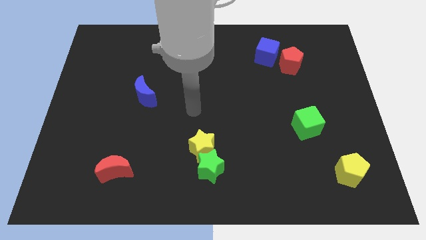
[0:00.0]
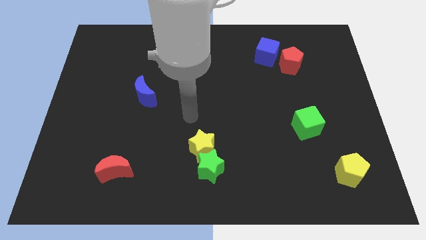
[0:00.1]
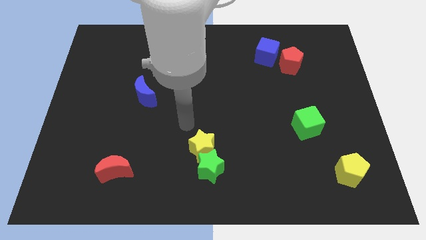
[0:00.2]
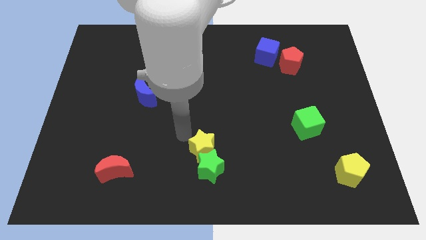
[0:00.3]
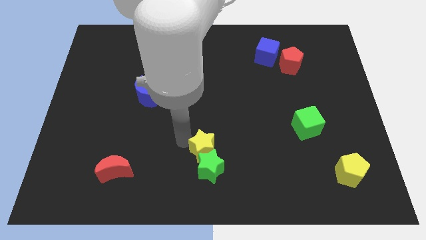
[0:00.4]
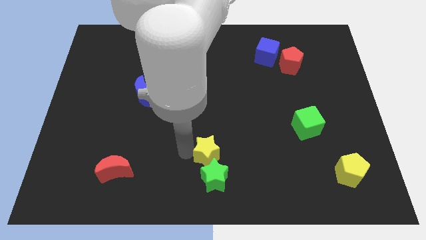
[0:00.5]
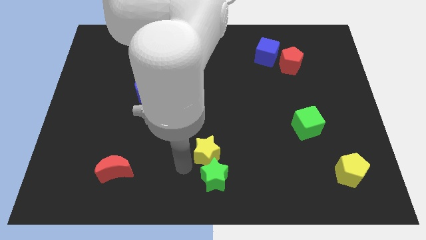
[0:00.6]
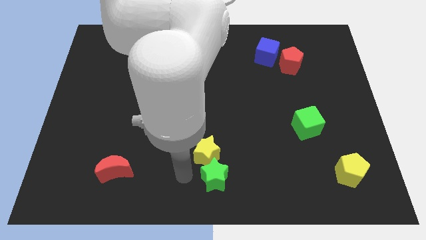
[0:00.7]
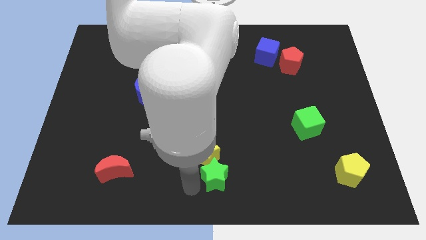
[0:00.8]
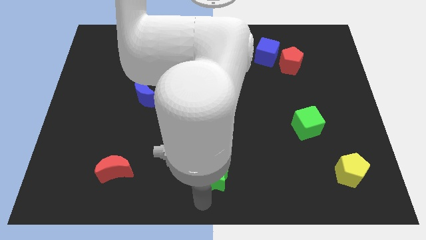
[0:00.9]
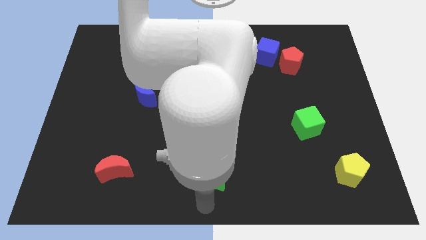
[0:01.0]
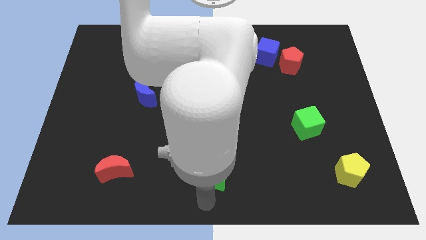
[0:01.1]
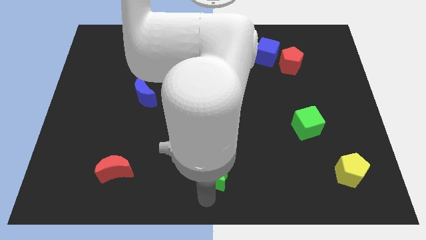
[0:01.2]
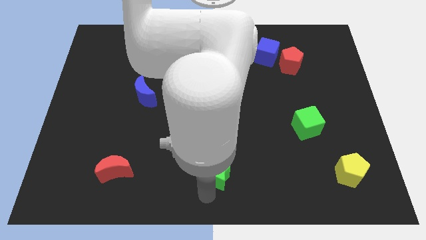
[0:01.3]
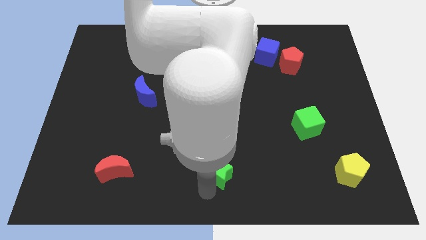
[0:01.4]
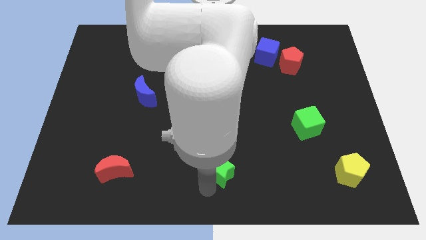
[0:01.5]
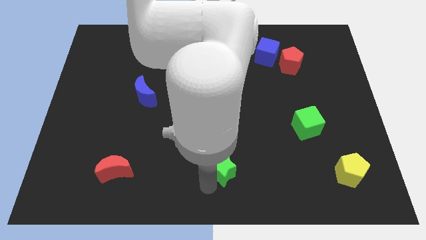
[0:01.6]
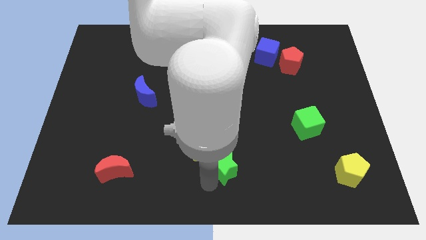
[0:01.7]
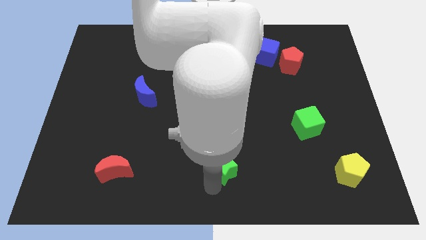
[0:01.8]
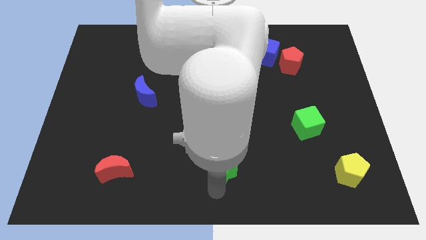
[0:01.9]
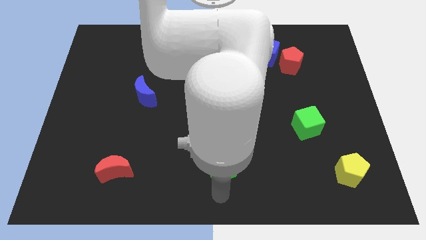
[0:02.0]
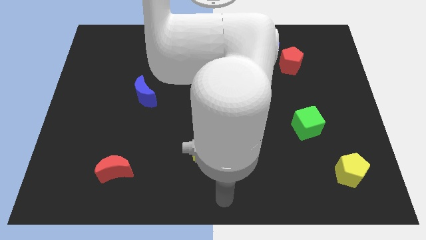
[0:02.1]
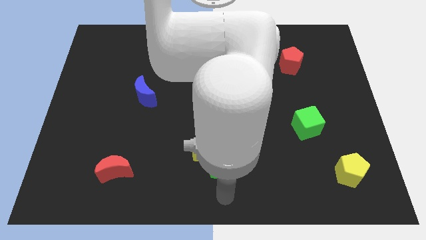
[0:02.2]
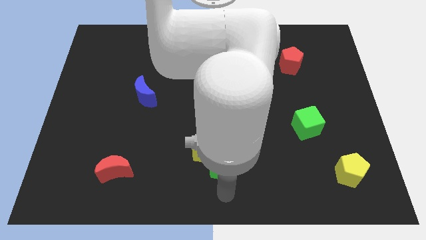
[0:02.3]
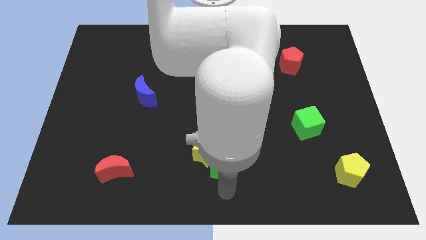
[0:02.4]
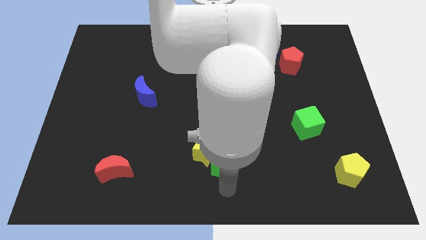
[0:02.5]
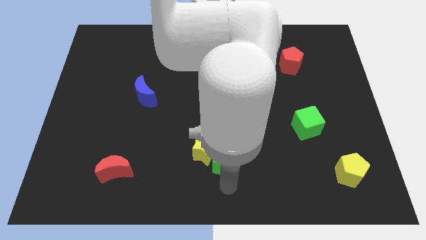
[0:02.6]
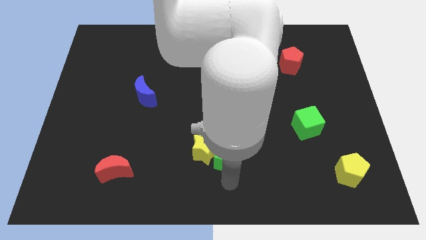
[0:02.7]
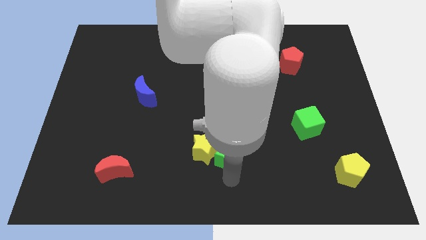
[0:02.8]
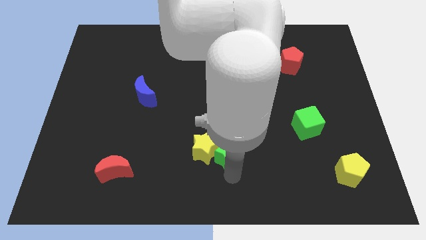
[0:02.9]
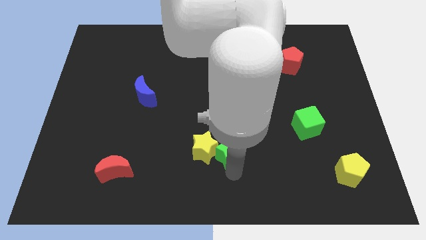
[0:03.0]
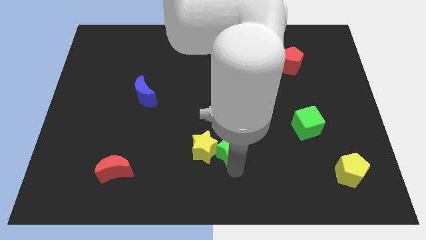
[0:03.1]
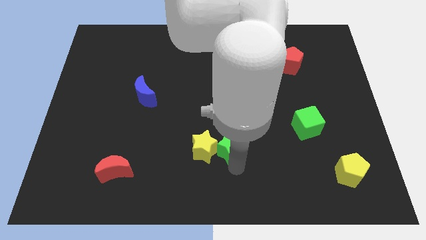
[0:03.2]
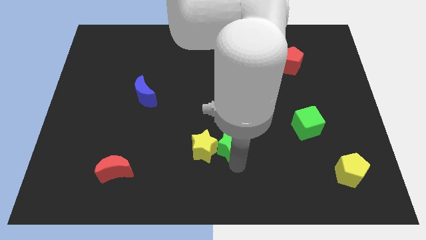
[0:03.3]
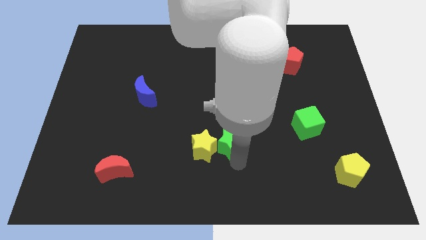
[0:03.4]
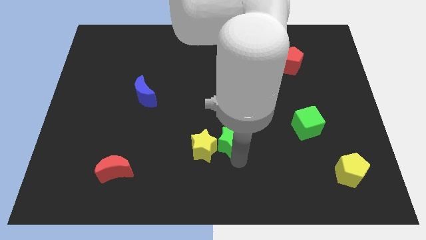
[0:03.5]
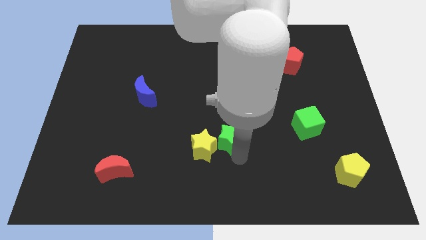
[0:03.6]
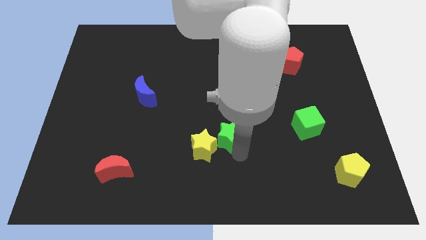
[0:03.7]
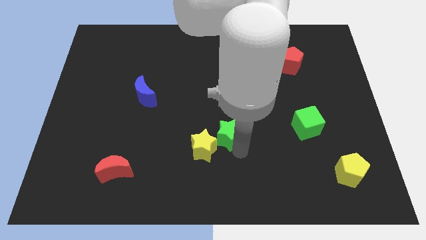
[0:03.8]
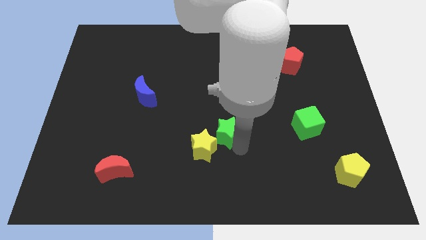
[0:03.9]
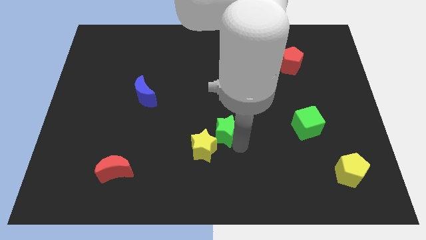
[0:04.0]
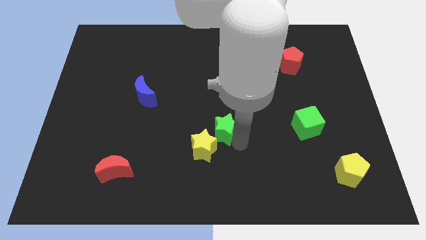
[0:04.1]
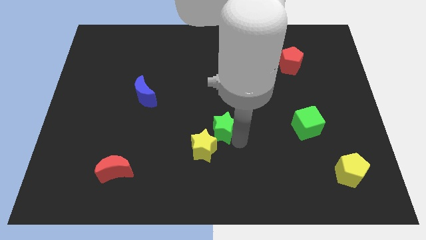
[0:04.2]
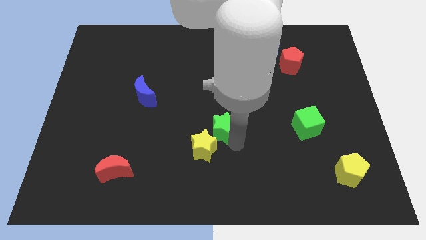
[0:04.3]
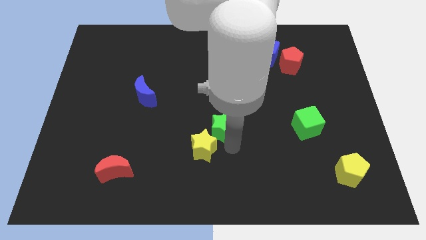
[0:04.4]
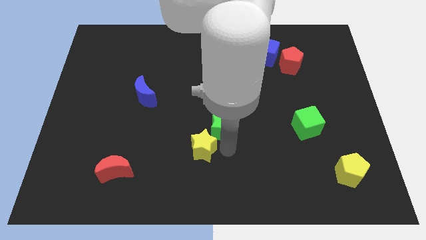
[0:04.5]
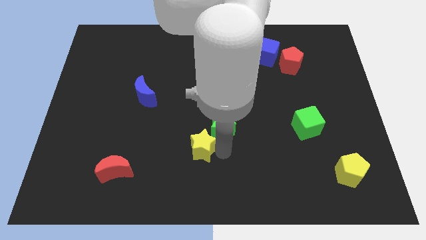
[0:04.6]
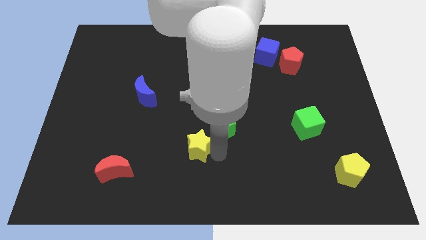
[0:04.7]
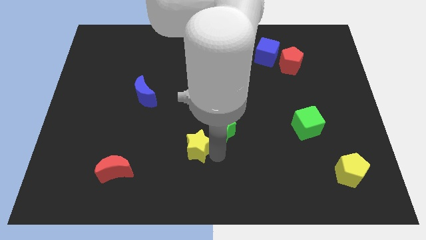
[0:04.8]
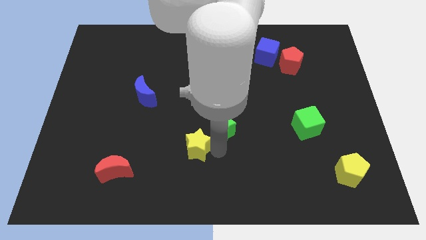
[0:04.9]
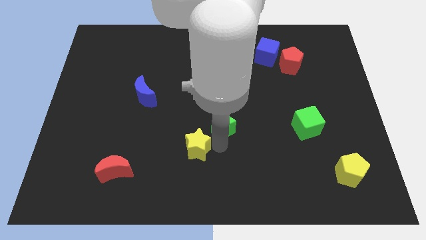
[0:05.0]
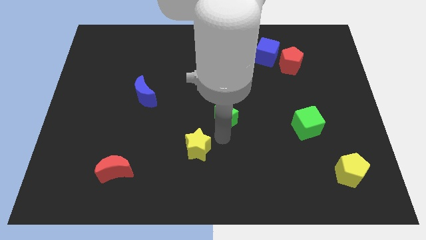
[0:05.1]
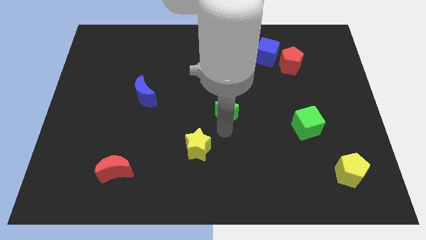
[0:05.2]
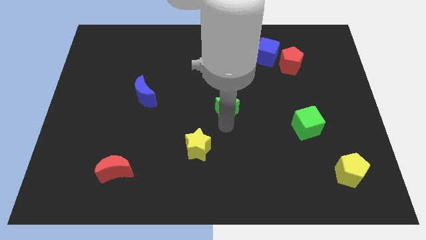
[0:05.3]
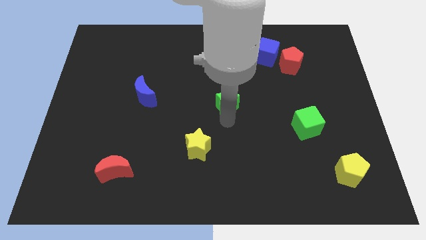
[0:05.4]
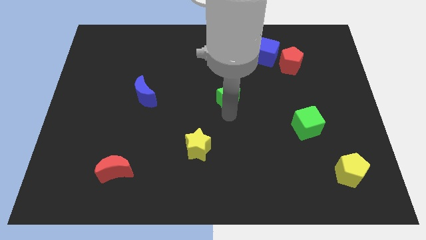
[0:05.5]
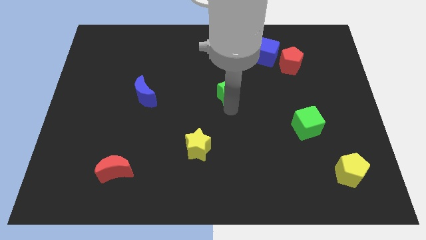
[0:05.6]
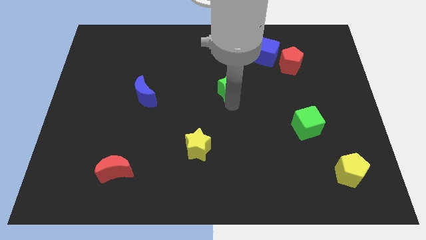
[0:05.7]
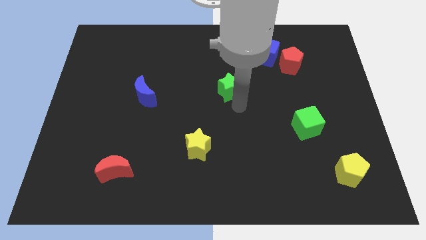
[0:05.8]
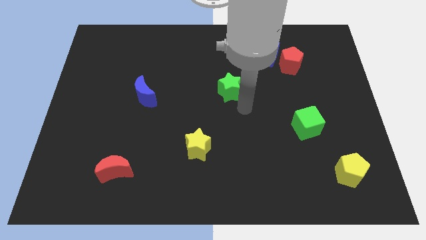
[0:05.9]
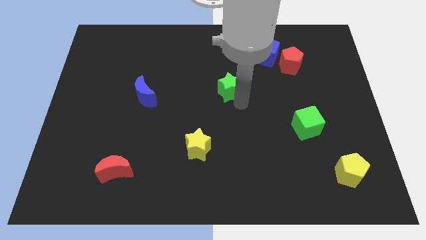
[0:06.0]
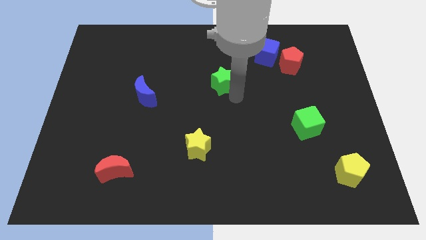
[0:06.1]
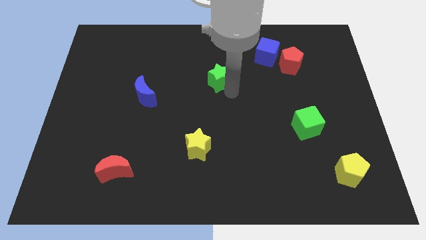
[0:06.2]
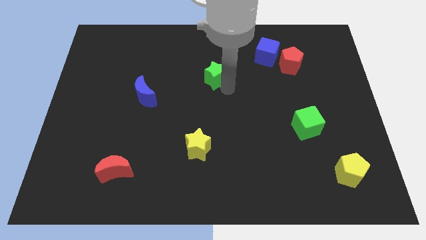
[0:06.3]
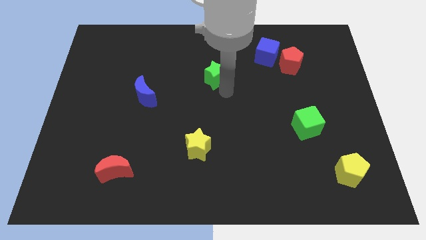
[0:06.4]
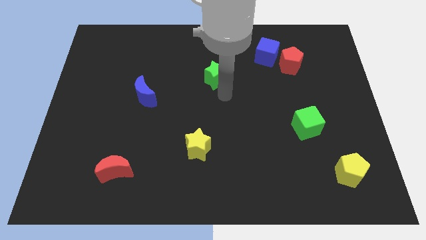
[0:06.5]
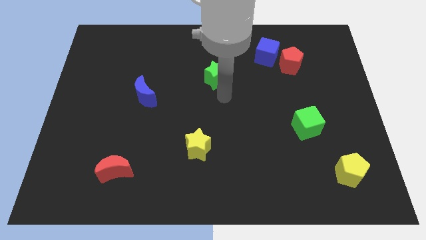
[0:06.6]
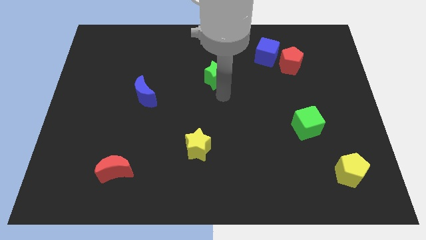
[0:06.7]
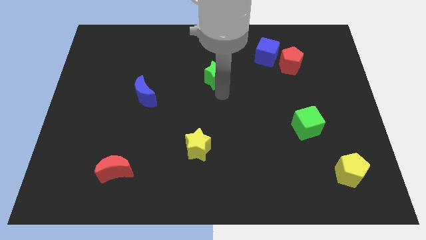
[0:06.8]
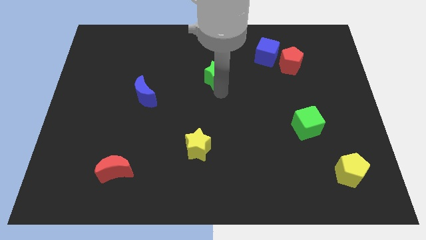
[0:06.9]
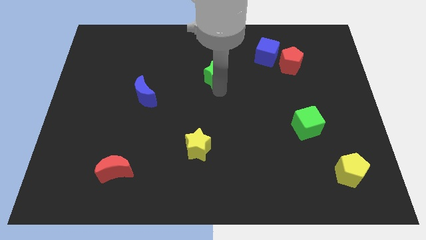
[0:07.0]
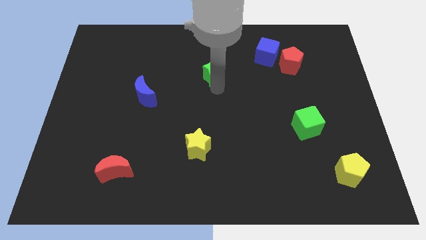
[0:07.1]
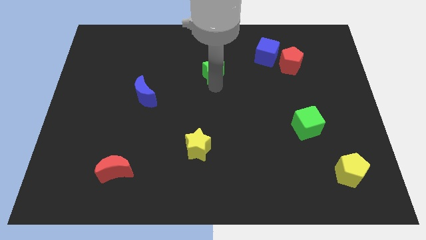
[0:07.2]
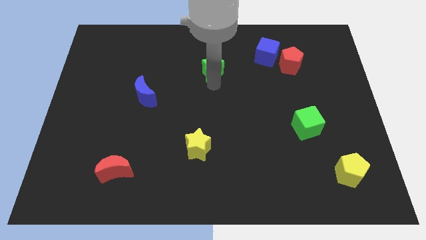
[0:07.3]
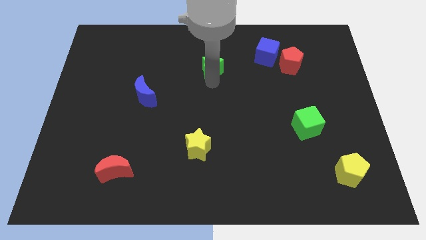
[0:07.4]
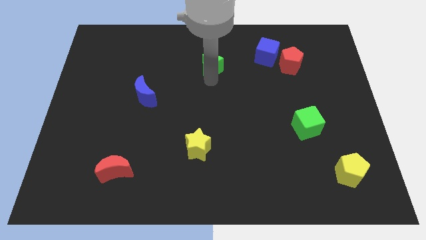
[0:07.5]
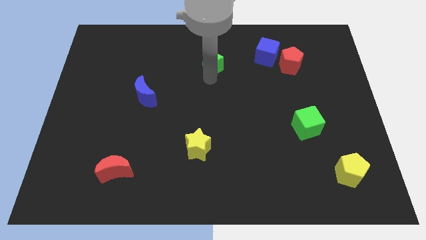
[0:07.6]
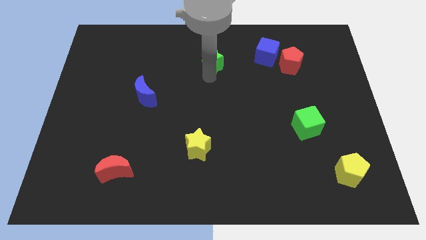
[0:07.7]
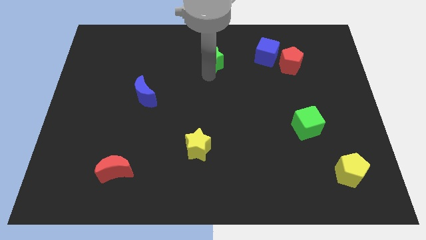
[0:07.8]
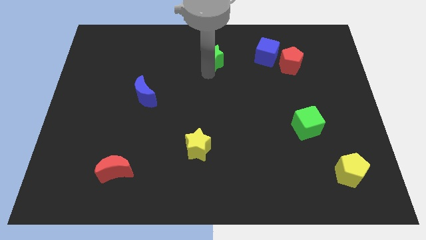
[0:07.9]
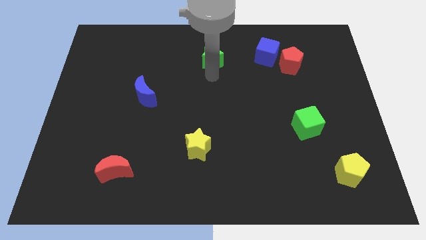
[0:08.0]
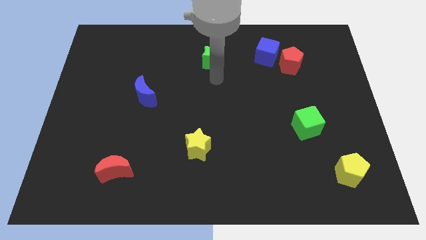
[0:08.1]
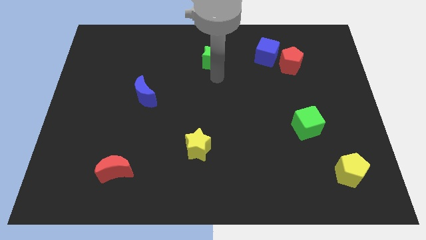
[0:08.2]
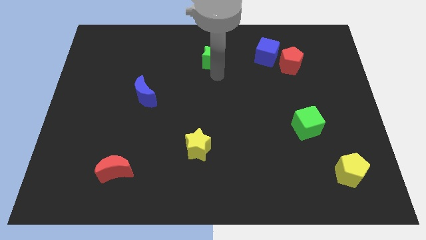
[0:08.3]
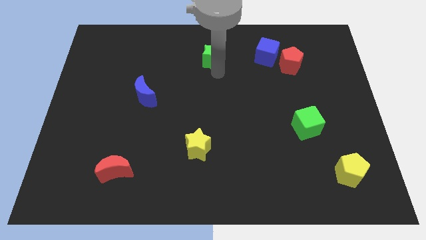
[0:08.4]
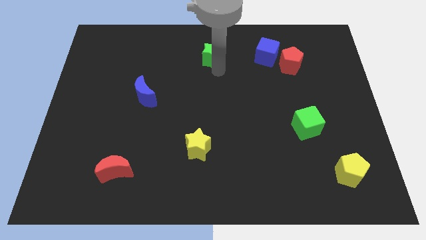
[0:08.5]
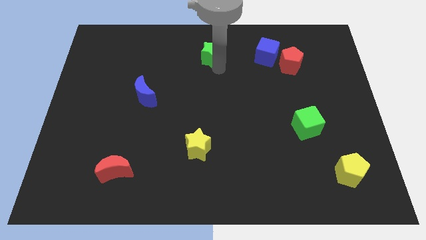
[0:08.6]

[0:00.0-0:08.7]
move the green star to the towards your base
